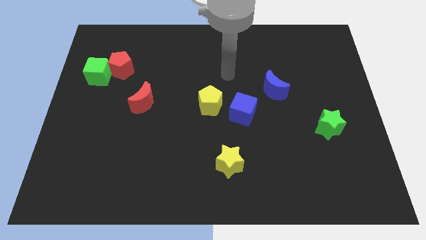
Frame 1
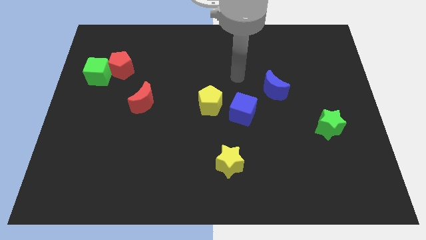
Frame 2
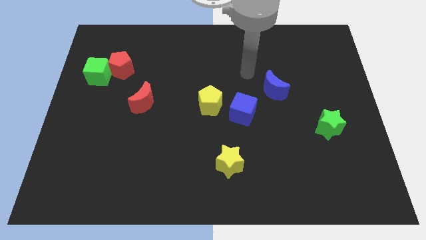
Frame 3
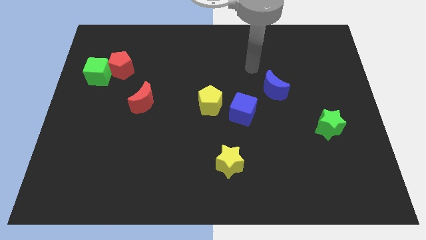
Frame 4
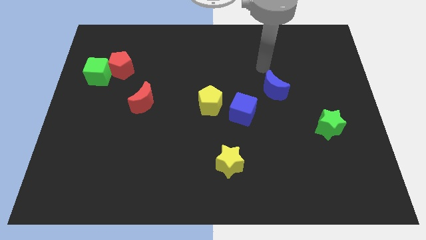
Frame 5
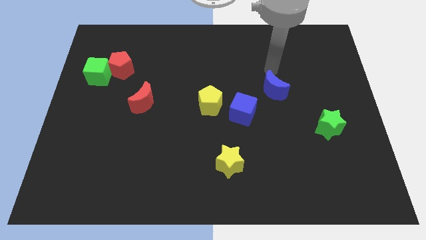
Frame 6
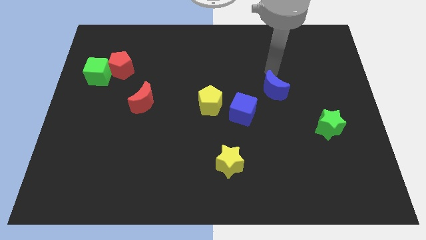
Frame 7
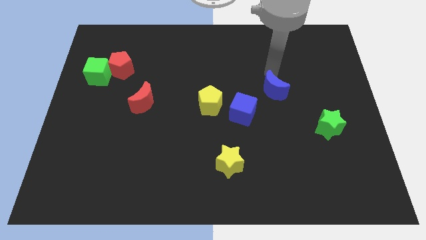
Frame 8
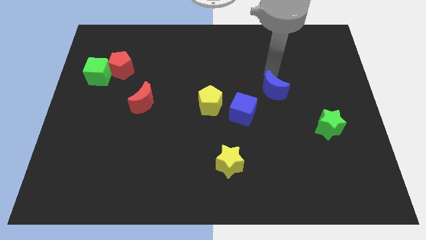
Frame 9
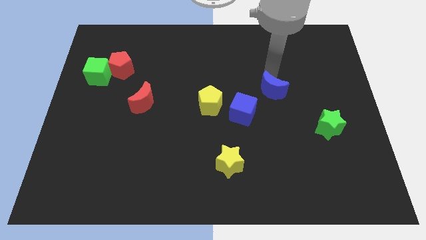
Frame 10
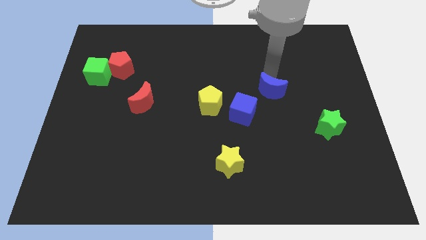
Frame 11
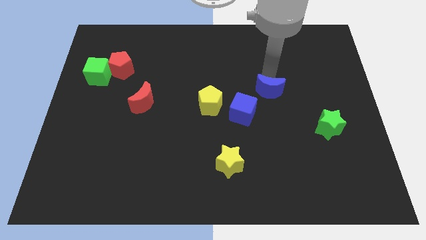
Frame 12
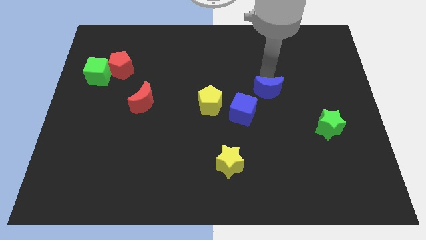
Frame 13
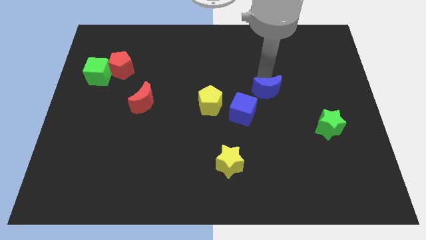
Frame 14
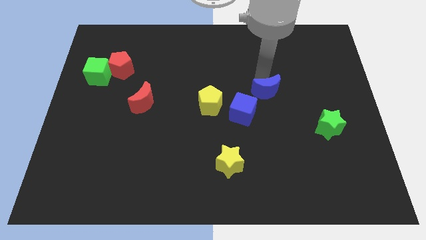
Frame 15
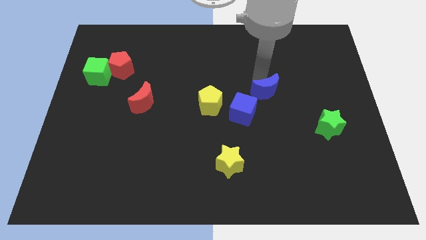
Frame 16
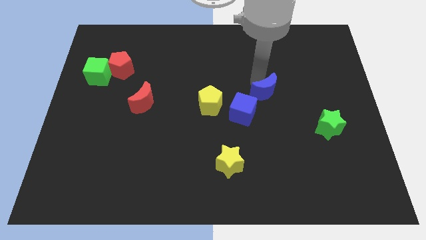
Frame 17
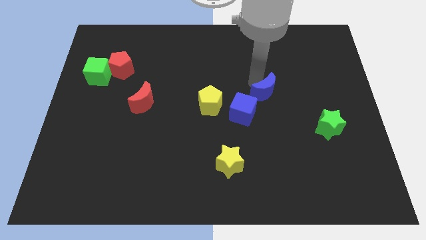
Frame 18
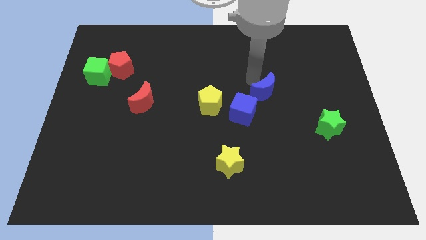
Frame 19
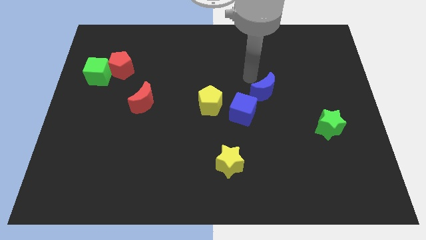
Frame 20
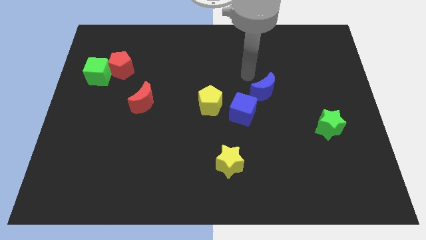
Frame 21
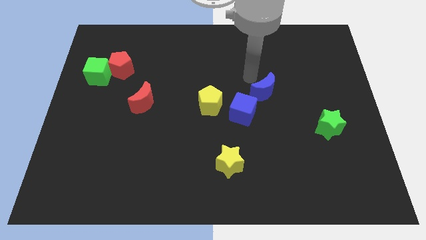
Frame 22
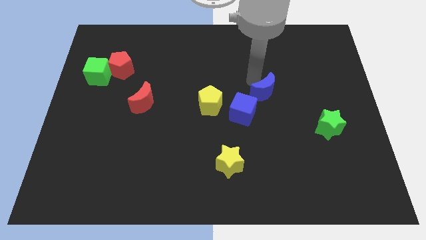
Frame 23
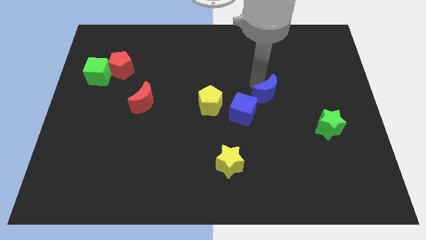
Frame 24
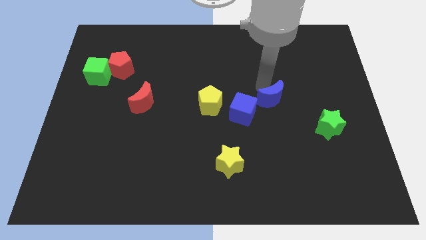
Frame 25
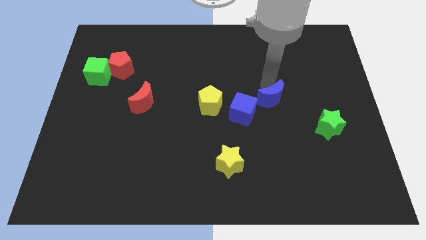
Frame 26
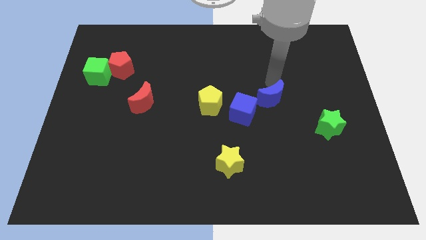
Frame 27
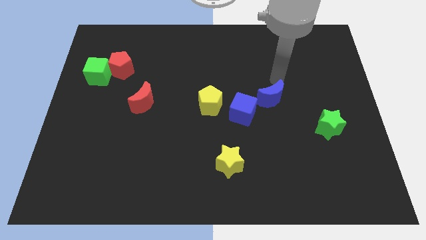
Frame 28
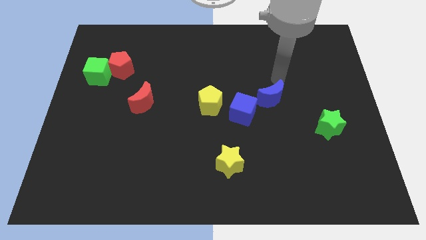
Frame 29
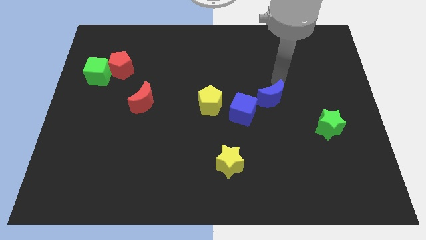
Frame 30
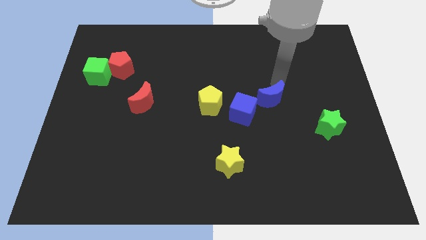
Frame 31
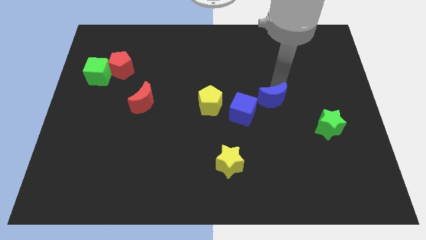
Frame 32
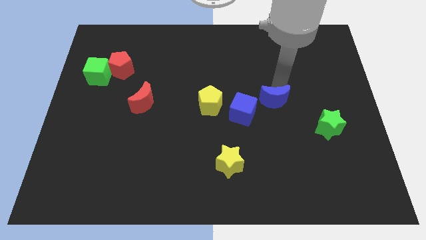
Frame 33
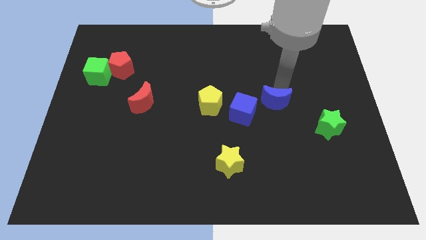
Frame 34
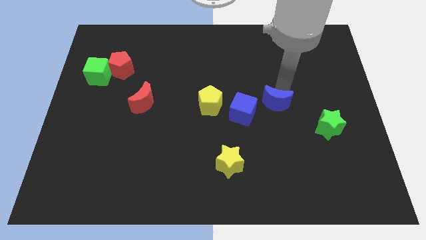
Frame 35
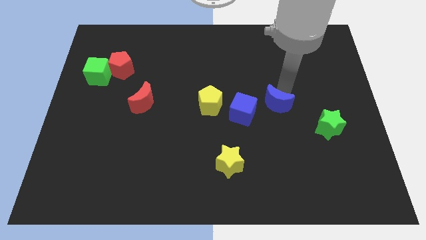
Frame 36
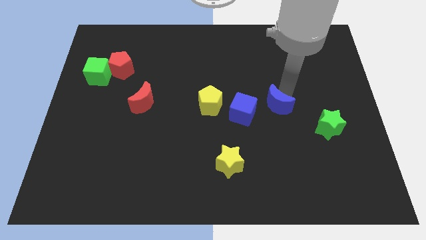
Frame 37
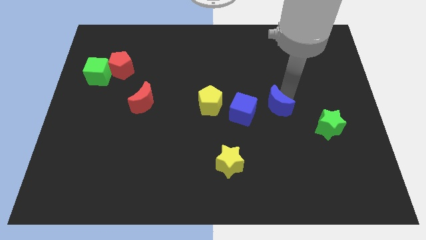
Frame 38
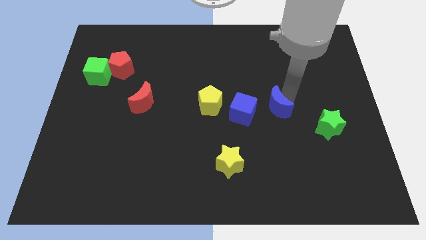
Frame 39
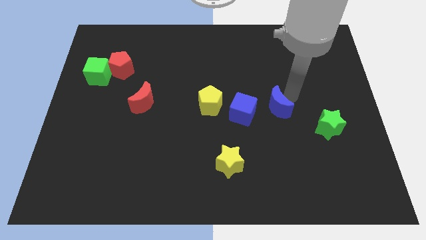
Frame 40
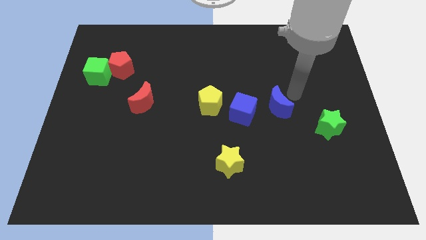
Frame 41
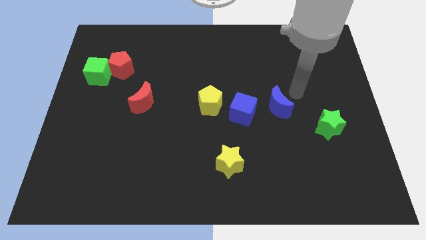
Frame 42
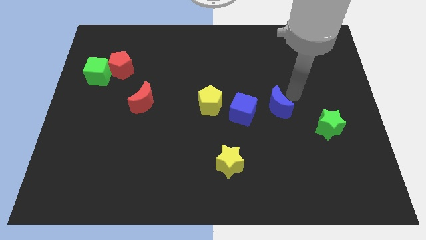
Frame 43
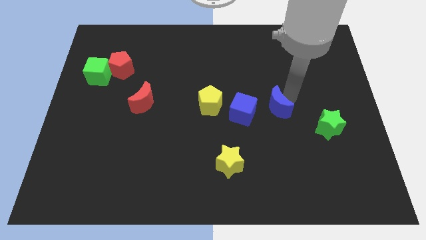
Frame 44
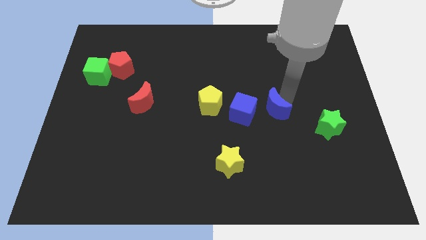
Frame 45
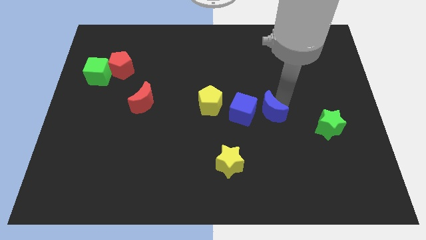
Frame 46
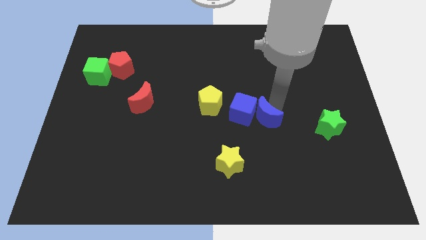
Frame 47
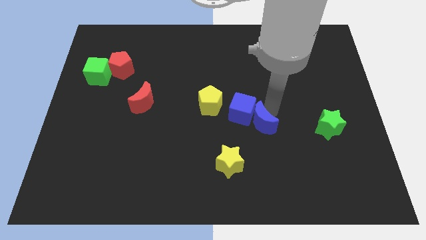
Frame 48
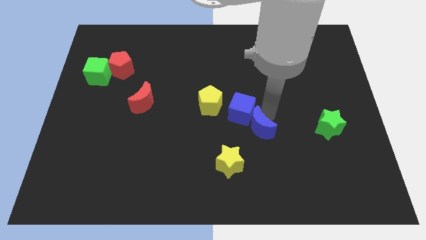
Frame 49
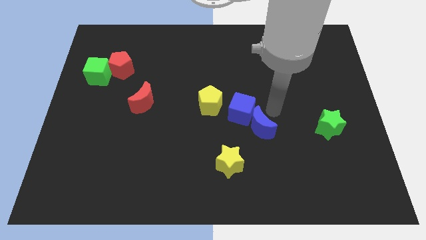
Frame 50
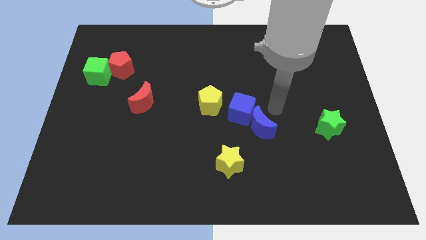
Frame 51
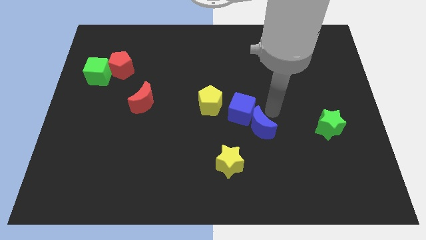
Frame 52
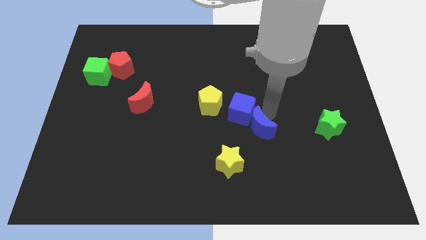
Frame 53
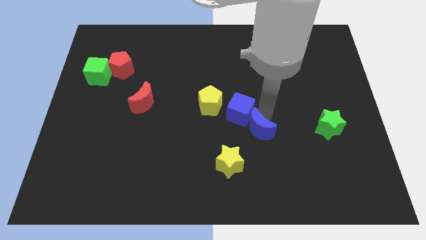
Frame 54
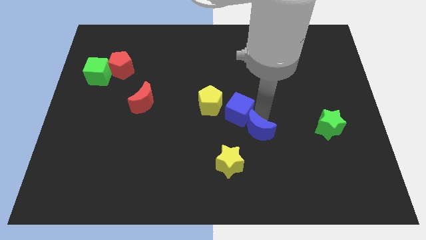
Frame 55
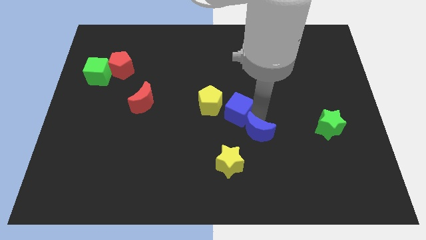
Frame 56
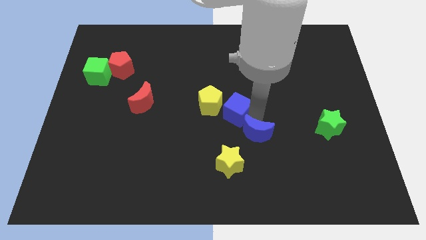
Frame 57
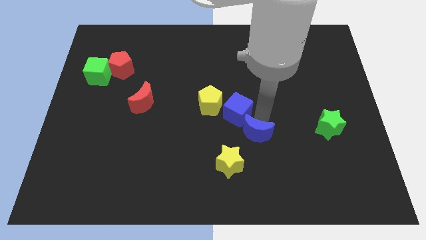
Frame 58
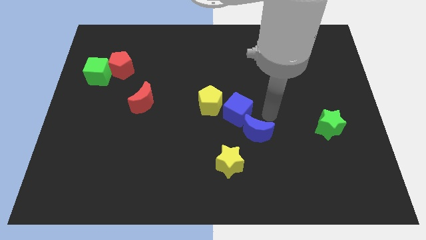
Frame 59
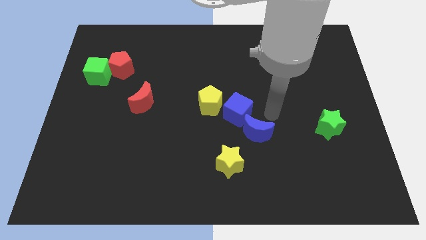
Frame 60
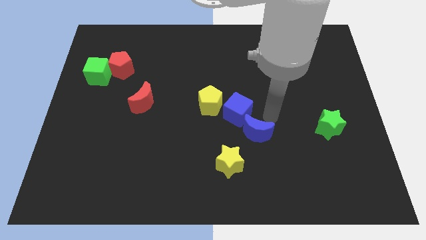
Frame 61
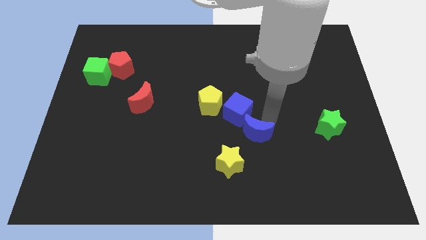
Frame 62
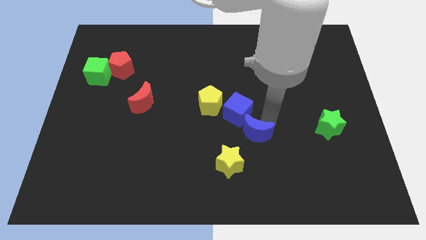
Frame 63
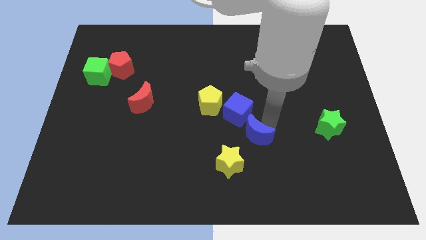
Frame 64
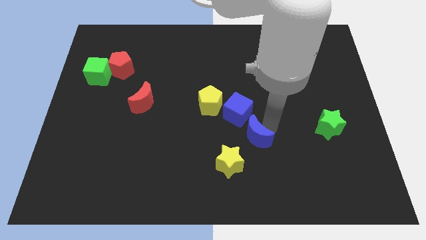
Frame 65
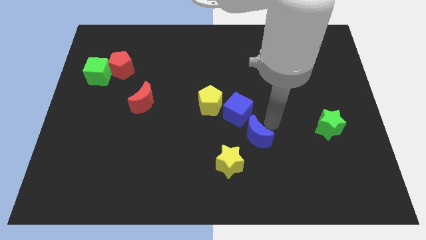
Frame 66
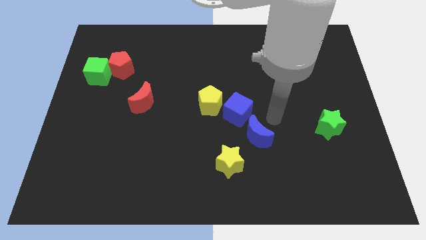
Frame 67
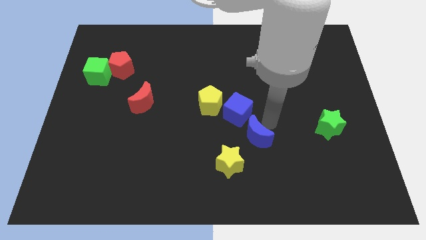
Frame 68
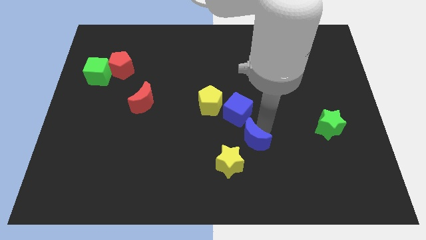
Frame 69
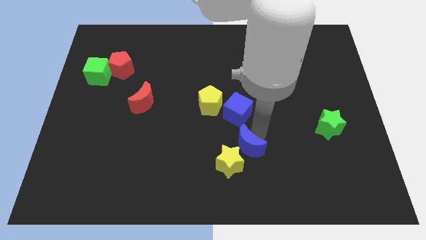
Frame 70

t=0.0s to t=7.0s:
put the blue moon close to the yellow star
